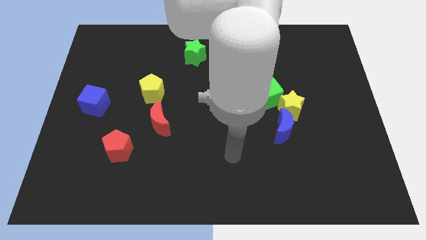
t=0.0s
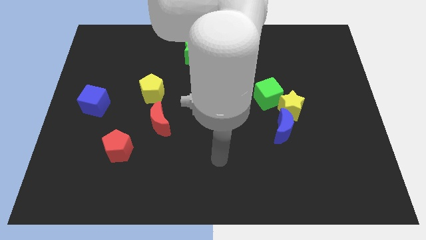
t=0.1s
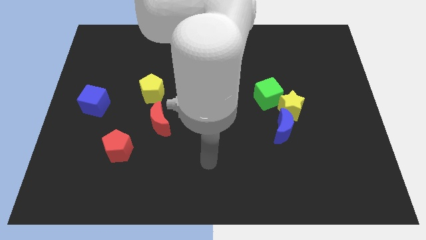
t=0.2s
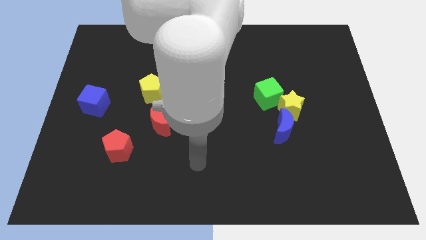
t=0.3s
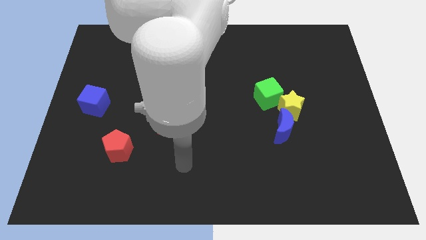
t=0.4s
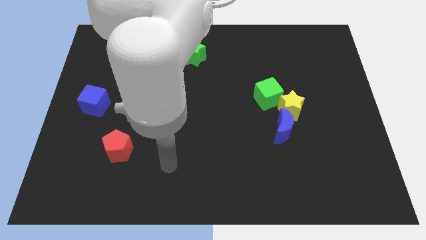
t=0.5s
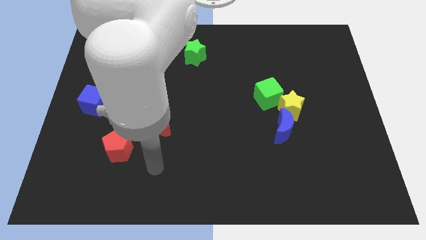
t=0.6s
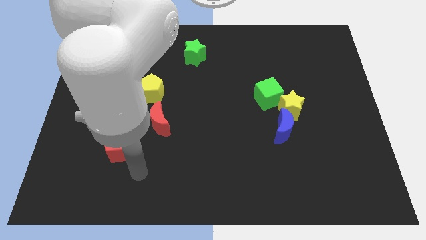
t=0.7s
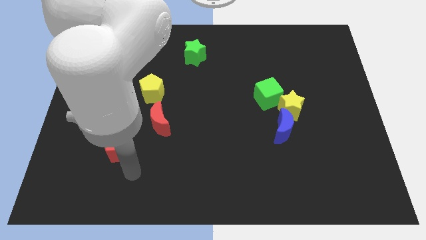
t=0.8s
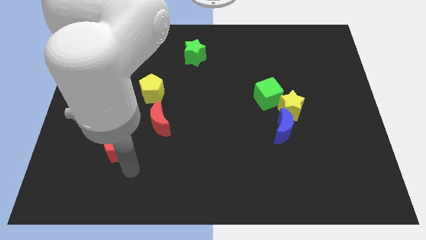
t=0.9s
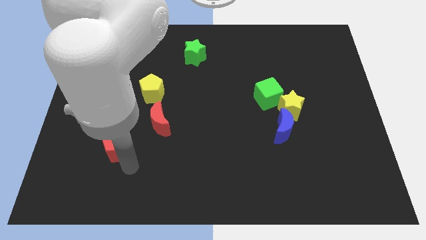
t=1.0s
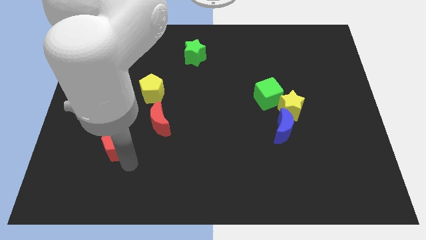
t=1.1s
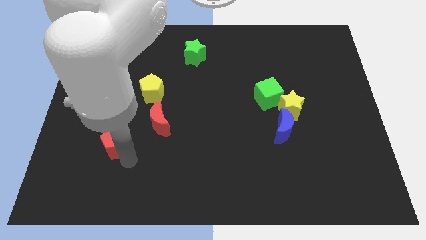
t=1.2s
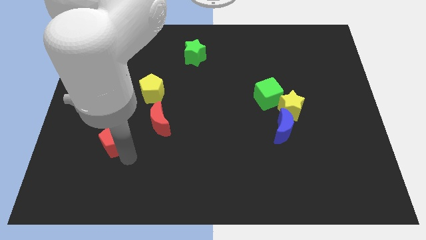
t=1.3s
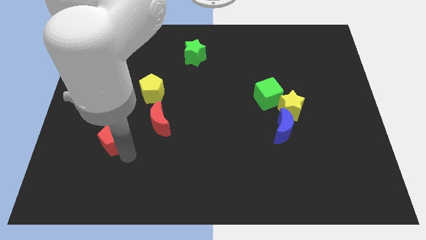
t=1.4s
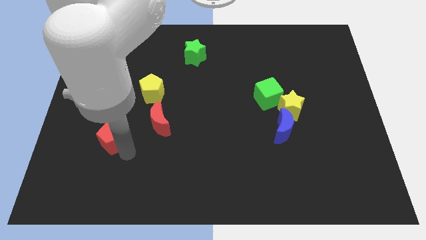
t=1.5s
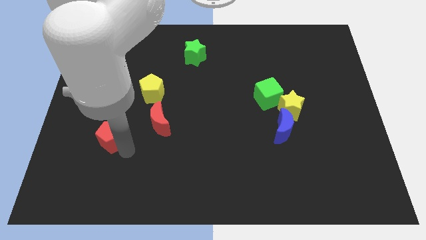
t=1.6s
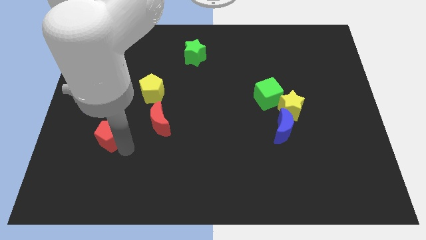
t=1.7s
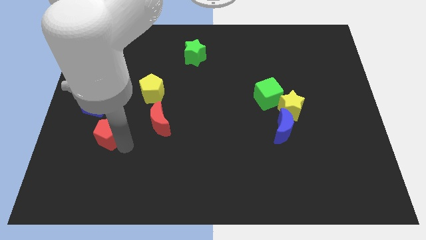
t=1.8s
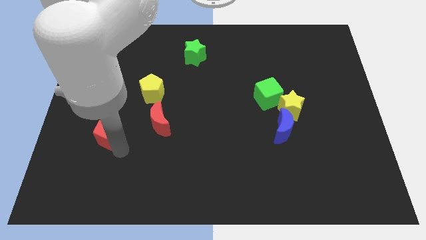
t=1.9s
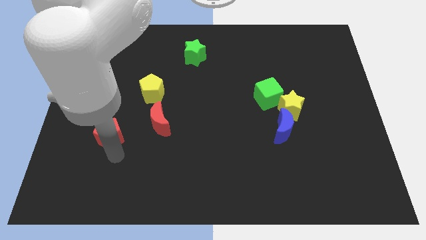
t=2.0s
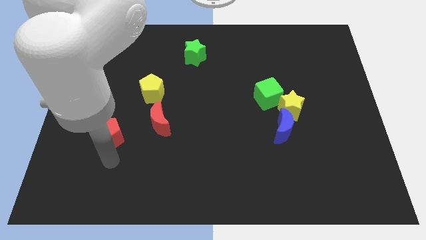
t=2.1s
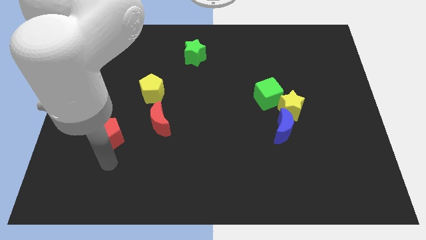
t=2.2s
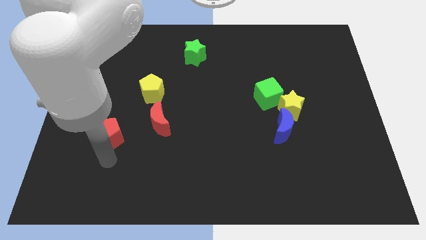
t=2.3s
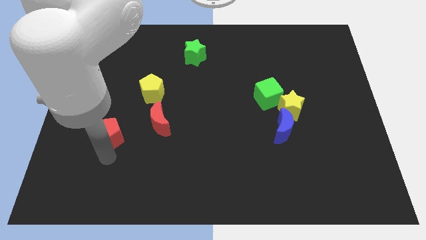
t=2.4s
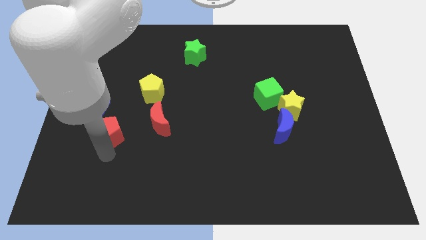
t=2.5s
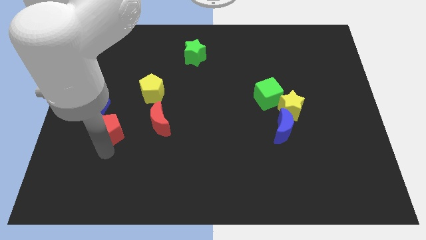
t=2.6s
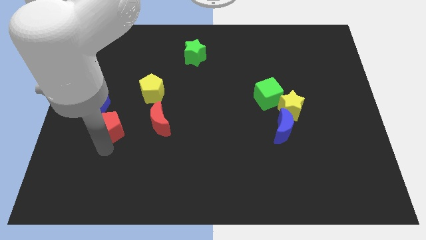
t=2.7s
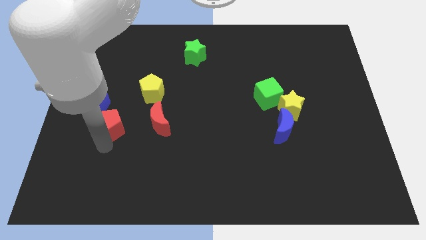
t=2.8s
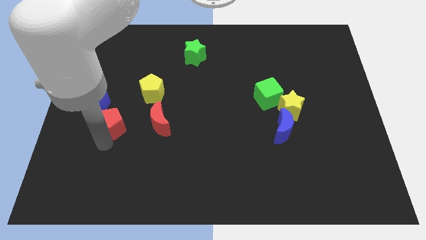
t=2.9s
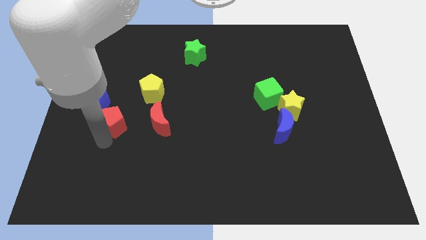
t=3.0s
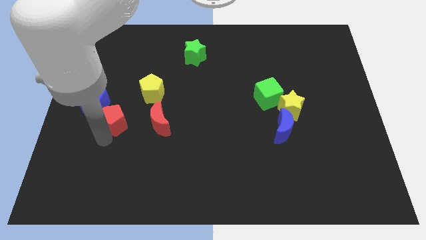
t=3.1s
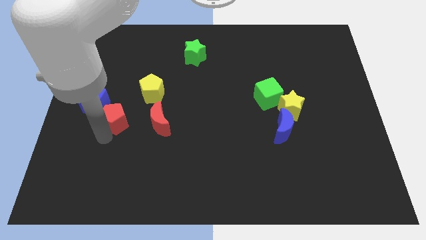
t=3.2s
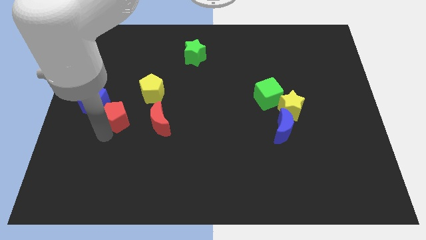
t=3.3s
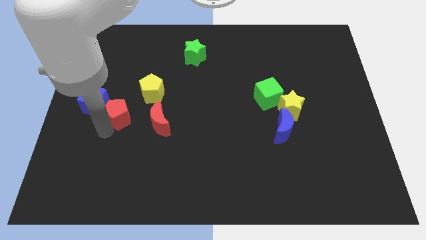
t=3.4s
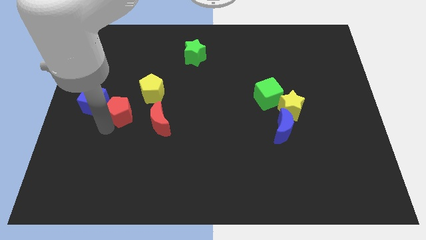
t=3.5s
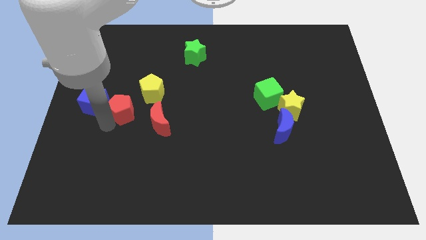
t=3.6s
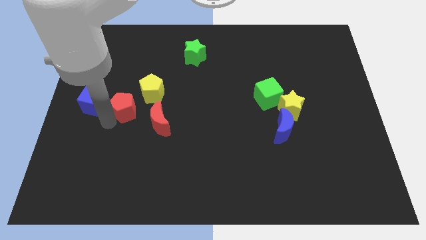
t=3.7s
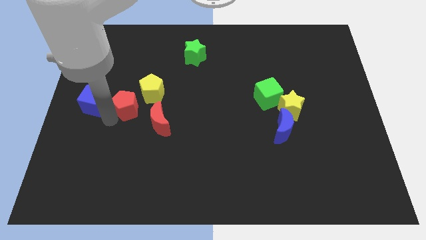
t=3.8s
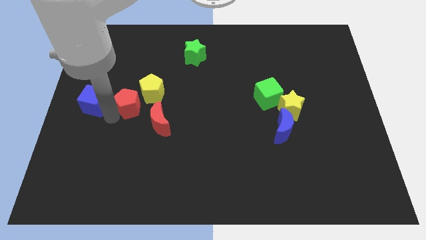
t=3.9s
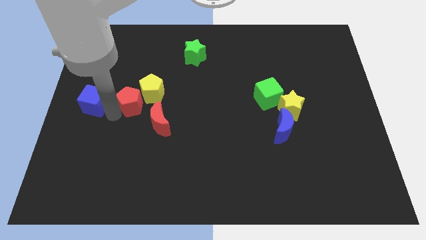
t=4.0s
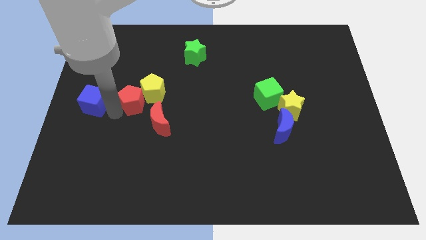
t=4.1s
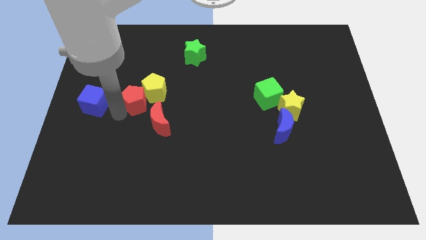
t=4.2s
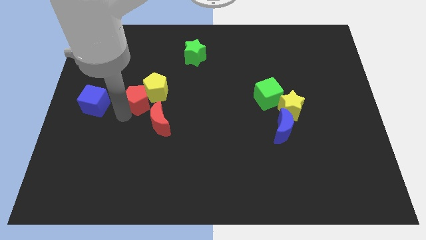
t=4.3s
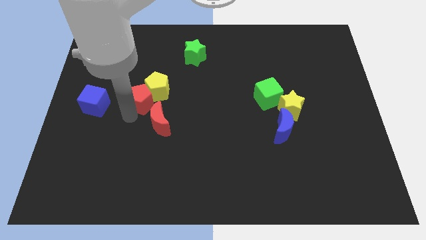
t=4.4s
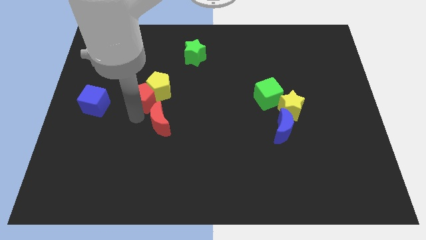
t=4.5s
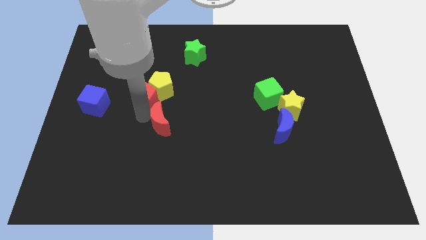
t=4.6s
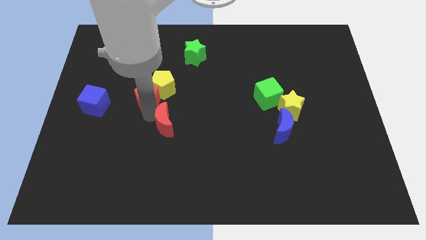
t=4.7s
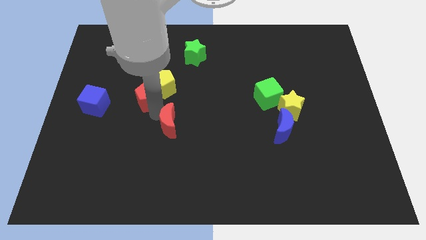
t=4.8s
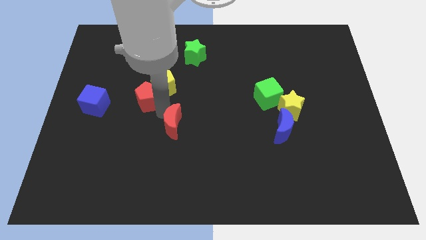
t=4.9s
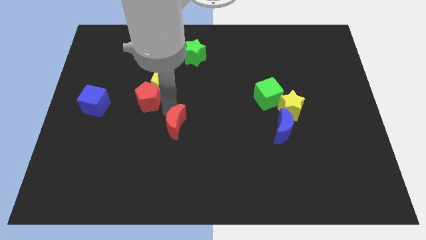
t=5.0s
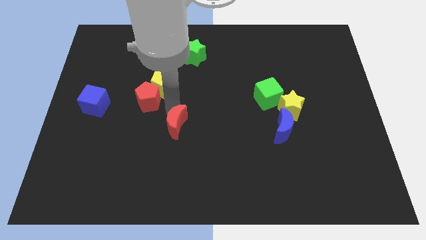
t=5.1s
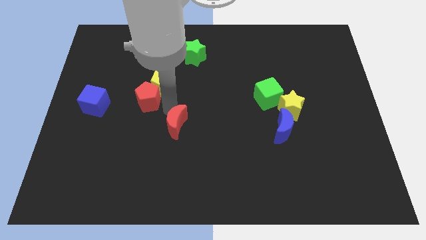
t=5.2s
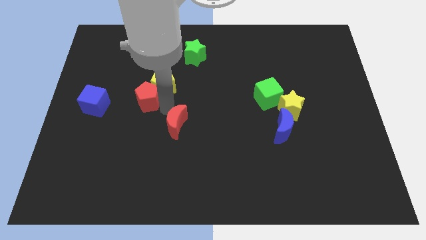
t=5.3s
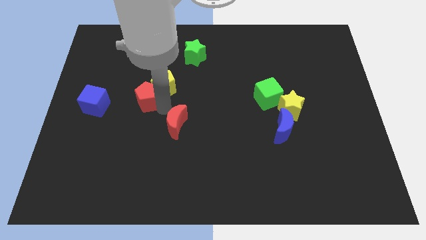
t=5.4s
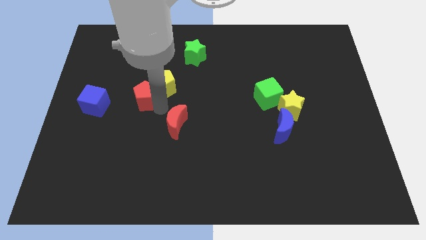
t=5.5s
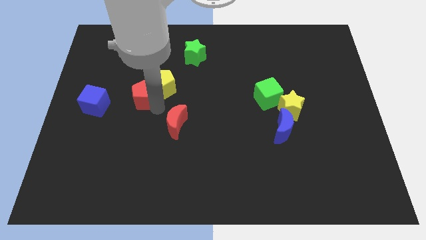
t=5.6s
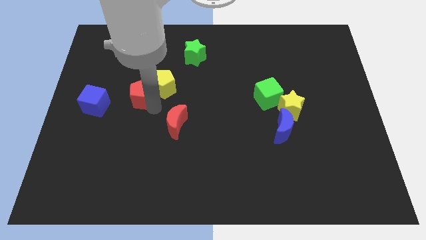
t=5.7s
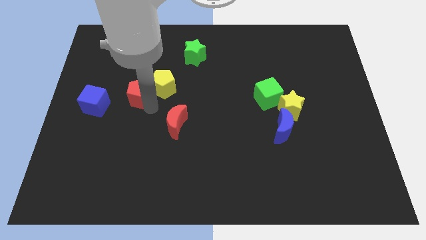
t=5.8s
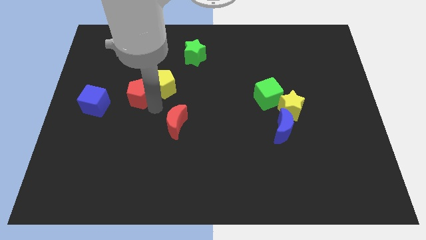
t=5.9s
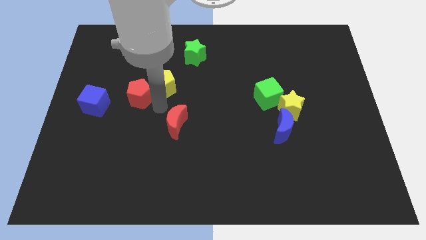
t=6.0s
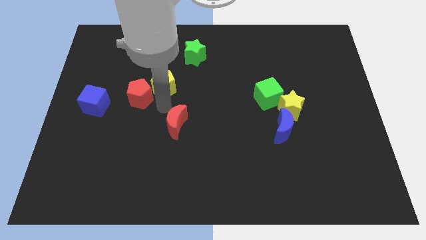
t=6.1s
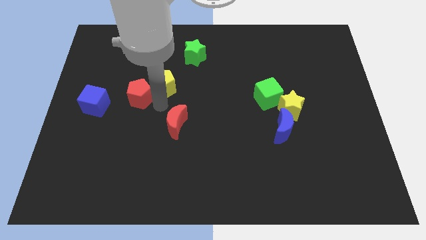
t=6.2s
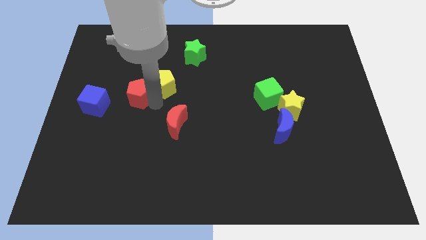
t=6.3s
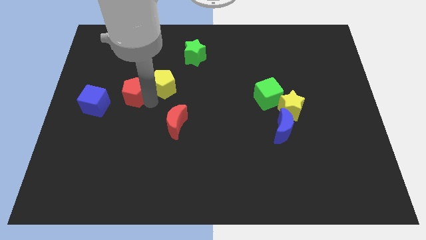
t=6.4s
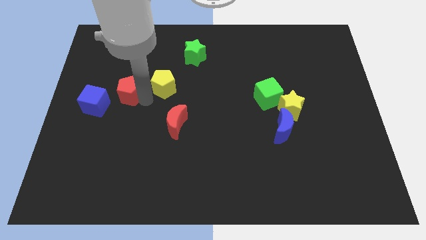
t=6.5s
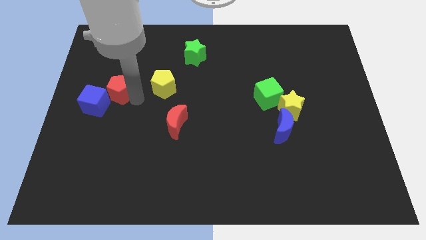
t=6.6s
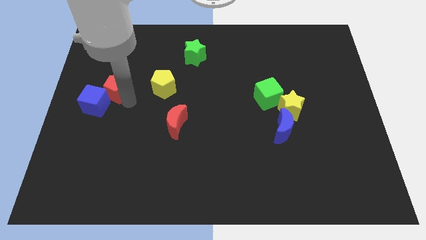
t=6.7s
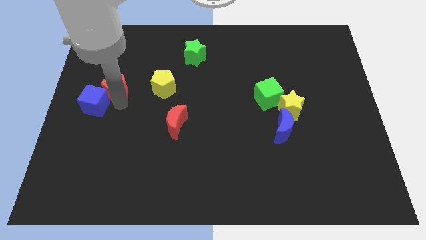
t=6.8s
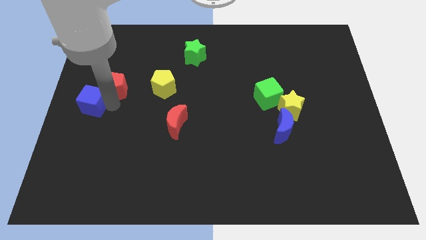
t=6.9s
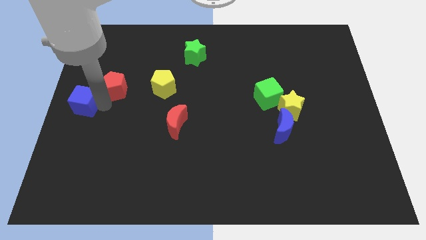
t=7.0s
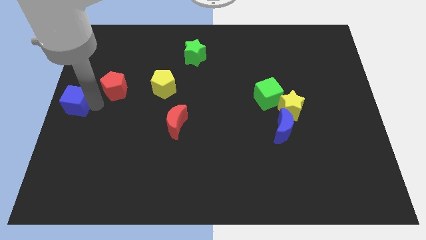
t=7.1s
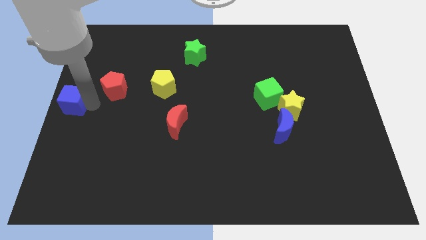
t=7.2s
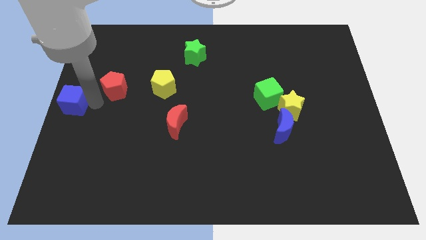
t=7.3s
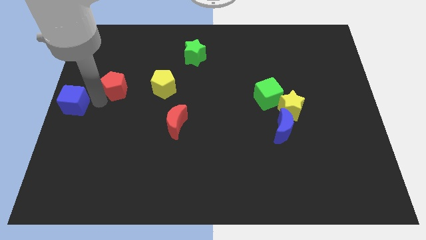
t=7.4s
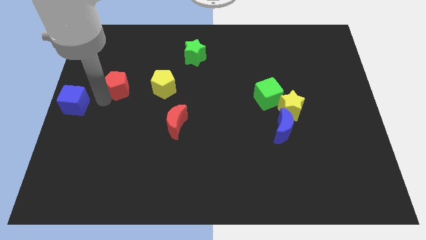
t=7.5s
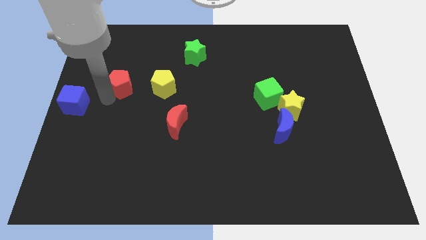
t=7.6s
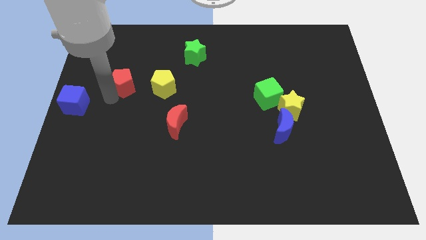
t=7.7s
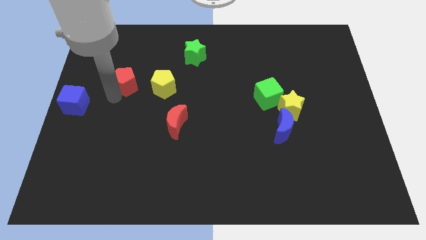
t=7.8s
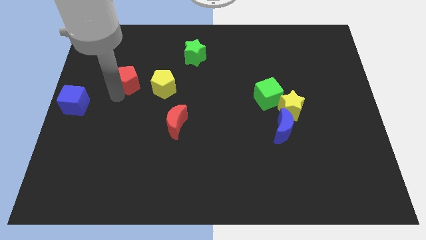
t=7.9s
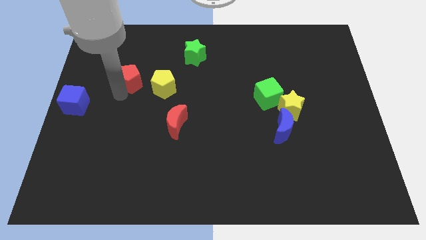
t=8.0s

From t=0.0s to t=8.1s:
move the red pentagon to the top left of the yellow pentagon
